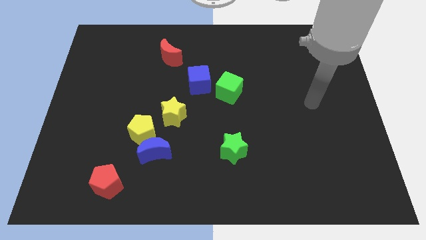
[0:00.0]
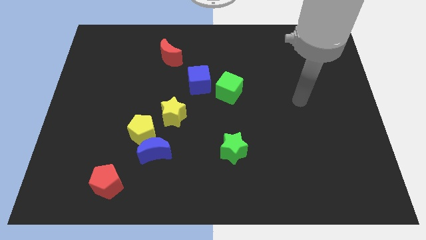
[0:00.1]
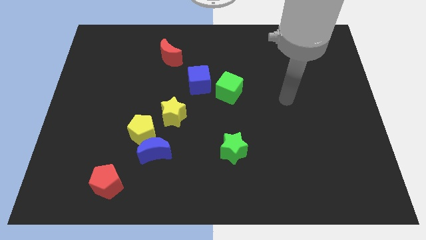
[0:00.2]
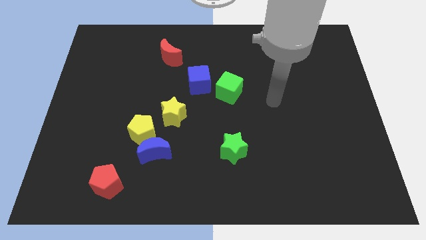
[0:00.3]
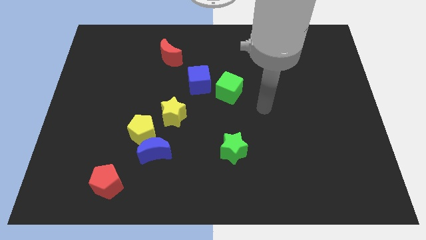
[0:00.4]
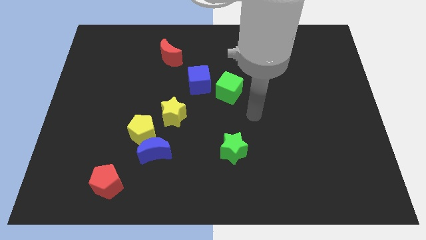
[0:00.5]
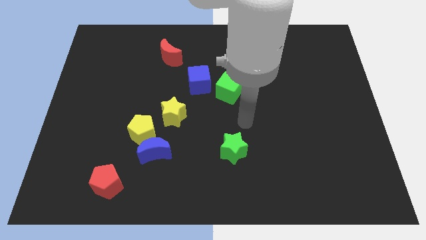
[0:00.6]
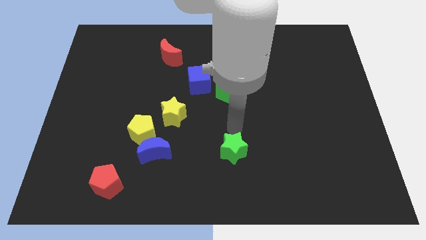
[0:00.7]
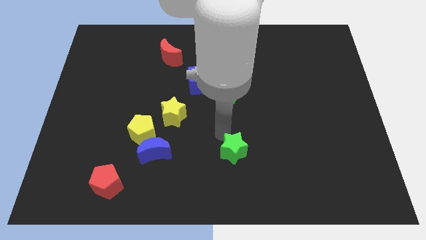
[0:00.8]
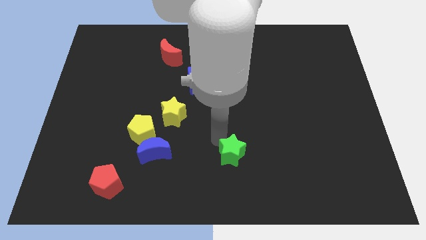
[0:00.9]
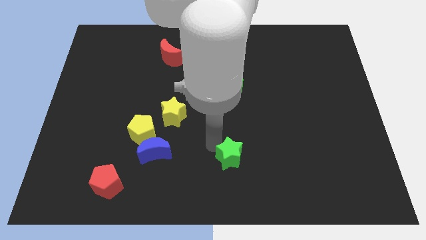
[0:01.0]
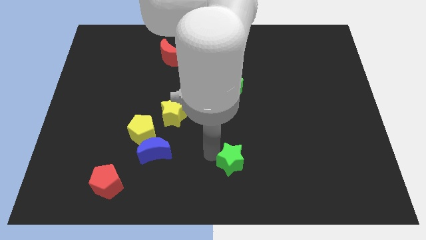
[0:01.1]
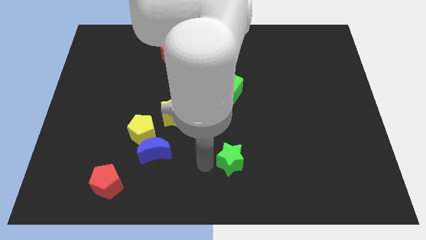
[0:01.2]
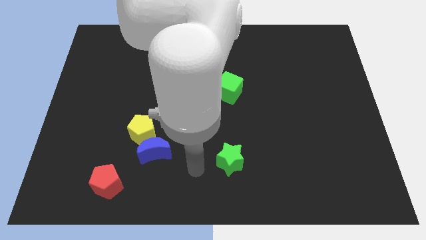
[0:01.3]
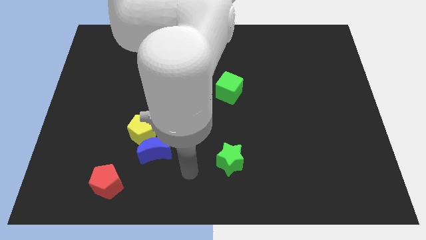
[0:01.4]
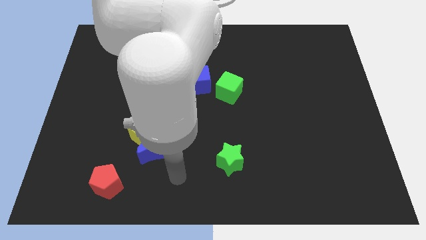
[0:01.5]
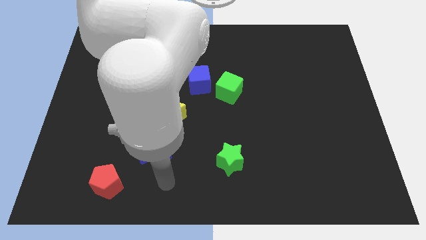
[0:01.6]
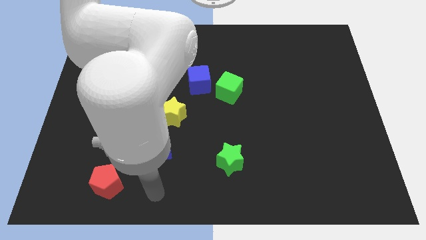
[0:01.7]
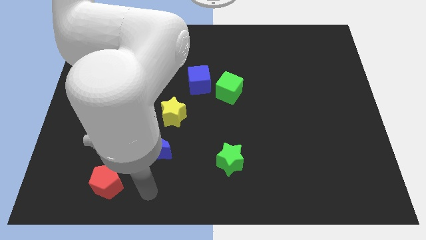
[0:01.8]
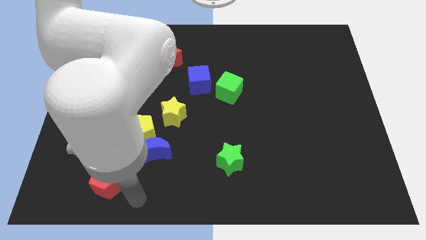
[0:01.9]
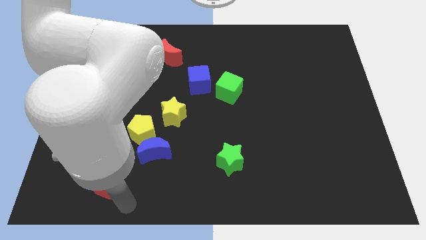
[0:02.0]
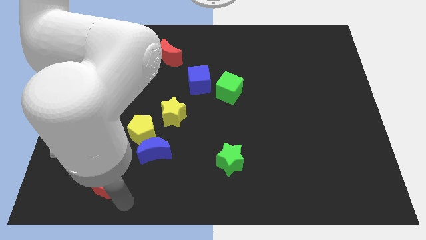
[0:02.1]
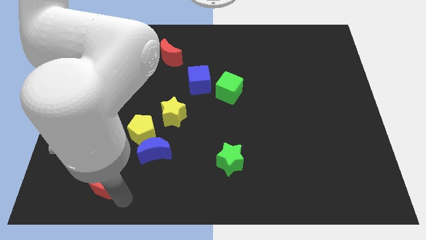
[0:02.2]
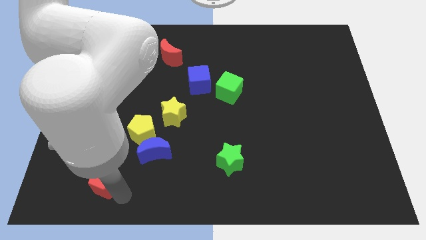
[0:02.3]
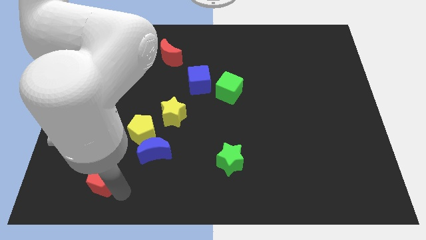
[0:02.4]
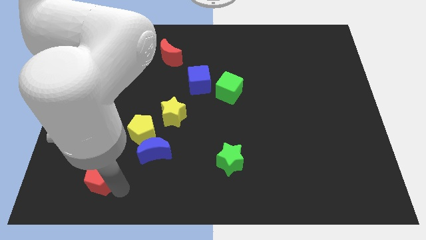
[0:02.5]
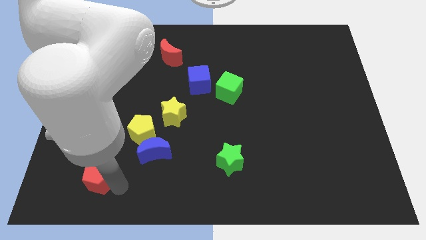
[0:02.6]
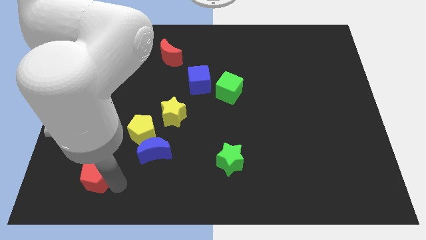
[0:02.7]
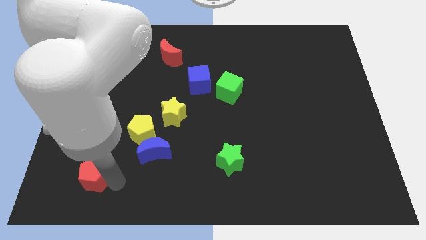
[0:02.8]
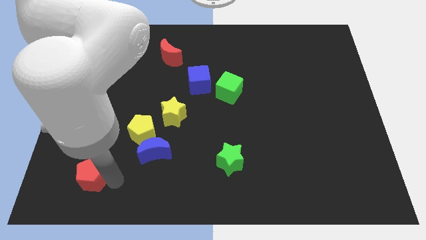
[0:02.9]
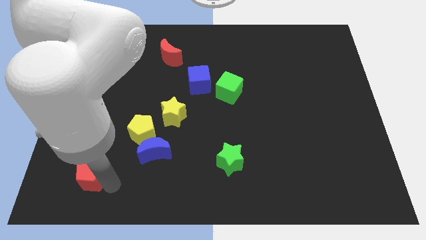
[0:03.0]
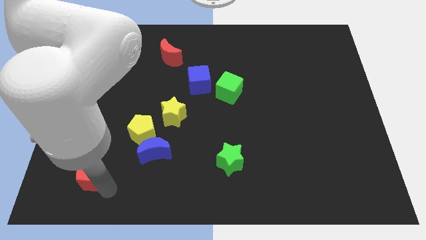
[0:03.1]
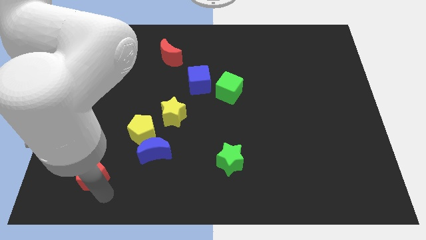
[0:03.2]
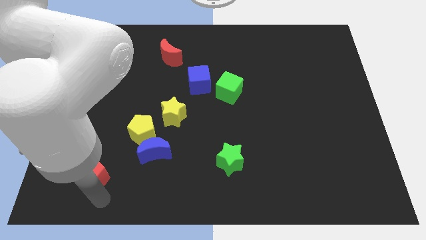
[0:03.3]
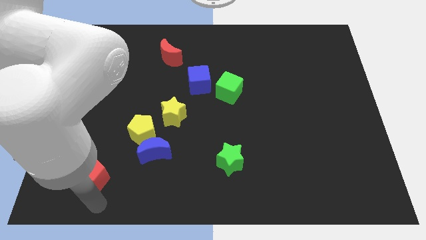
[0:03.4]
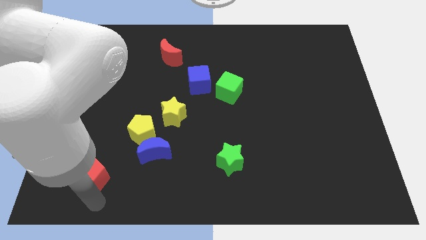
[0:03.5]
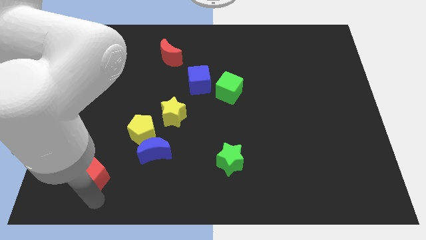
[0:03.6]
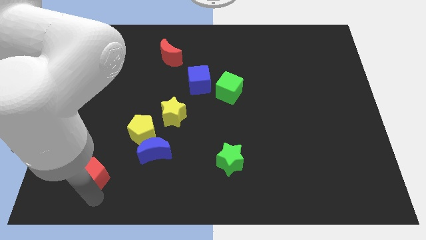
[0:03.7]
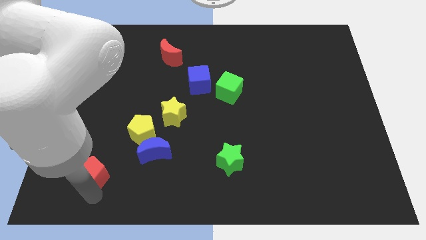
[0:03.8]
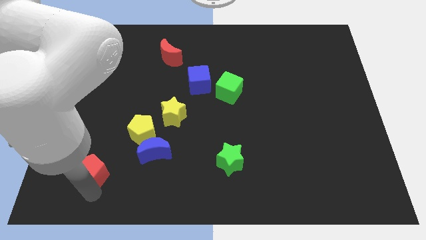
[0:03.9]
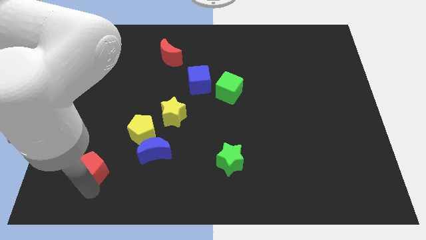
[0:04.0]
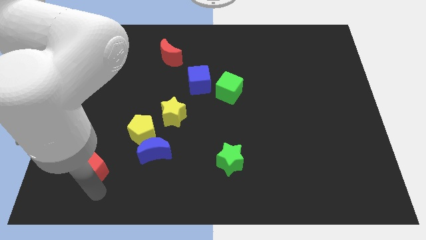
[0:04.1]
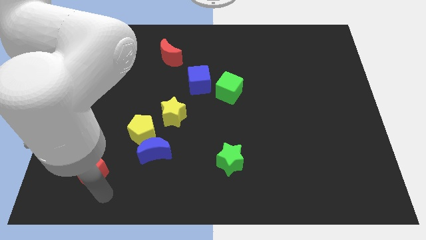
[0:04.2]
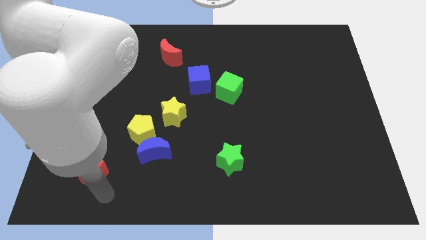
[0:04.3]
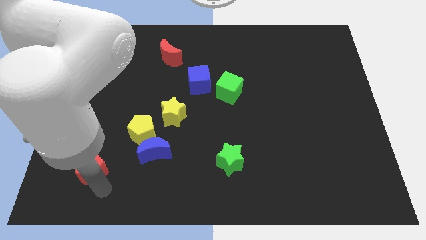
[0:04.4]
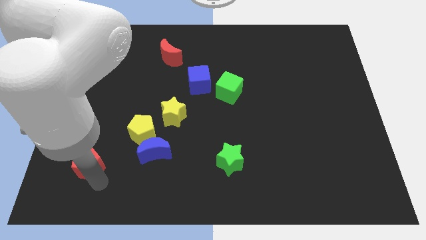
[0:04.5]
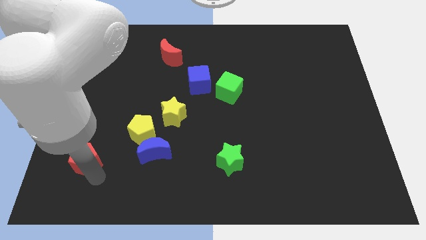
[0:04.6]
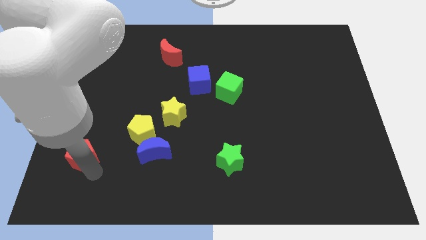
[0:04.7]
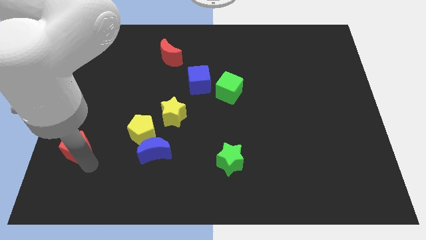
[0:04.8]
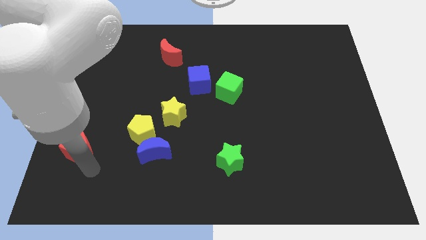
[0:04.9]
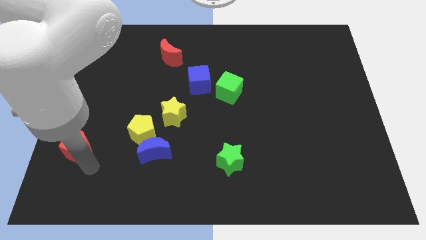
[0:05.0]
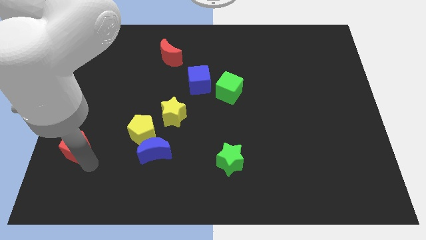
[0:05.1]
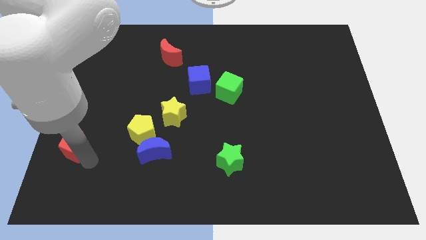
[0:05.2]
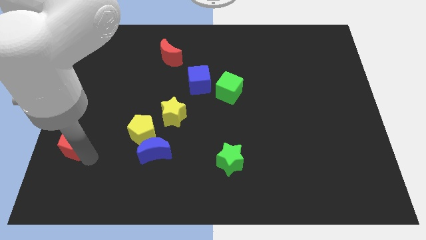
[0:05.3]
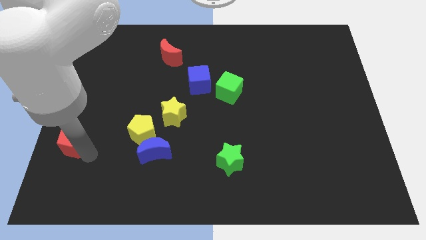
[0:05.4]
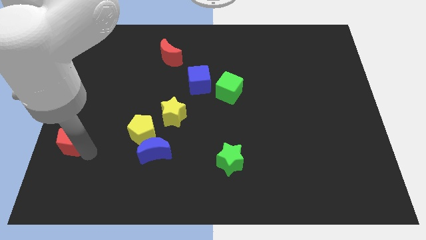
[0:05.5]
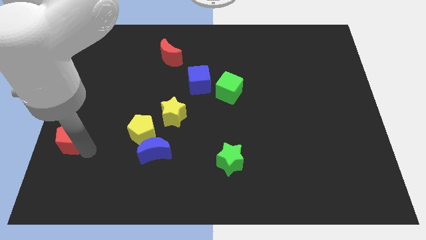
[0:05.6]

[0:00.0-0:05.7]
slide the red pentagon to the left side of the board

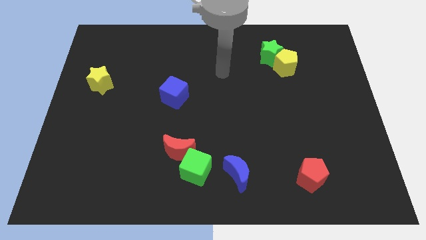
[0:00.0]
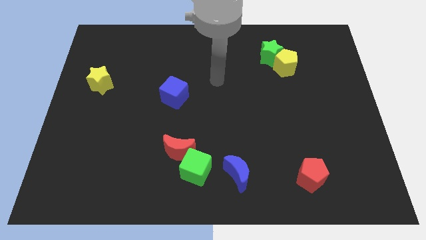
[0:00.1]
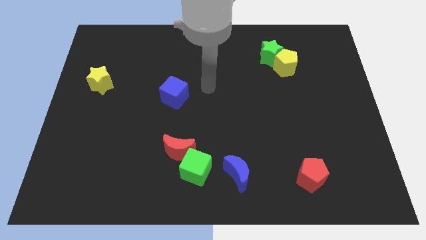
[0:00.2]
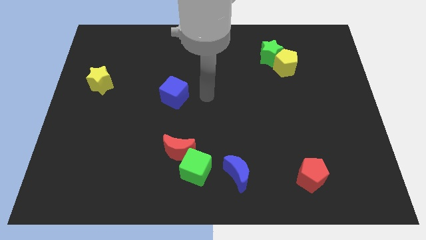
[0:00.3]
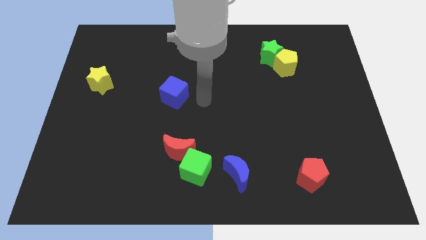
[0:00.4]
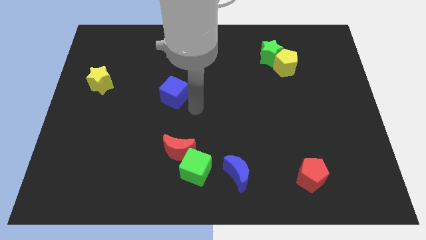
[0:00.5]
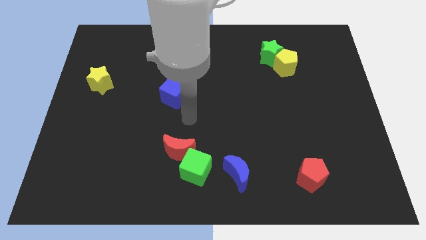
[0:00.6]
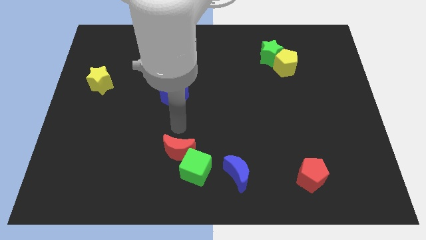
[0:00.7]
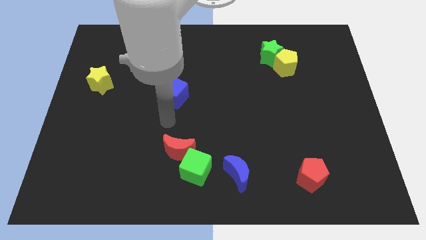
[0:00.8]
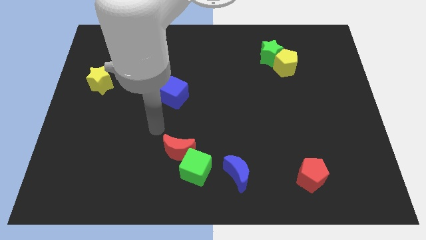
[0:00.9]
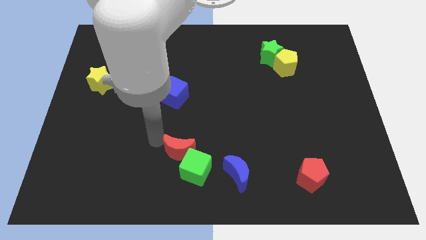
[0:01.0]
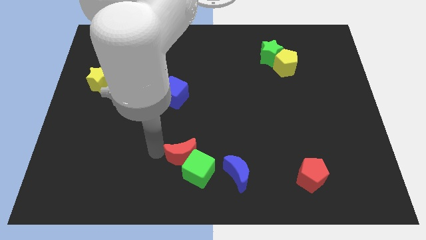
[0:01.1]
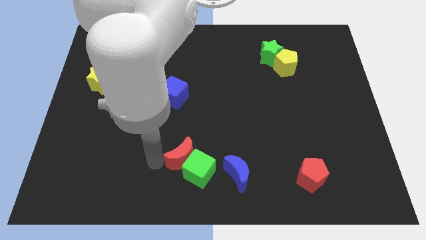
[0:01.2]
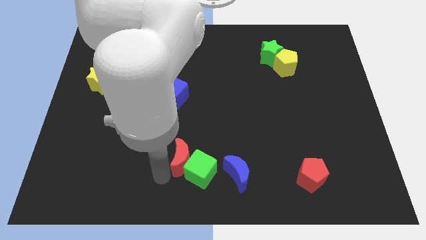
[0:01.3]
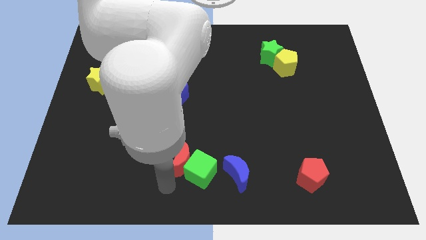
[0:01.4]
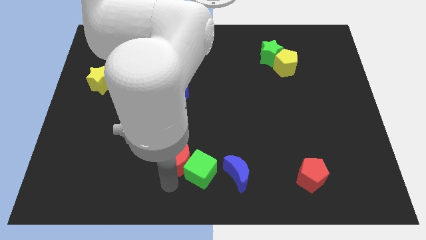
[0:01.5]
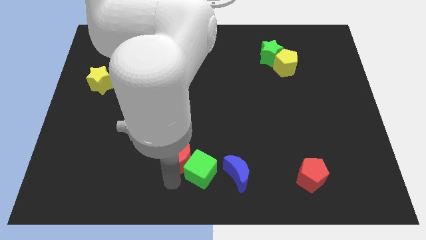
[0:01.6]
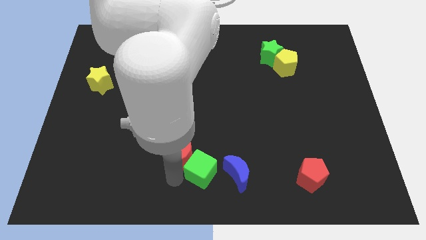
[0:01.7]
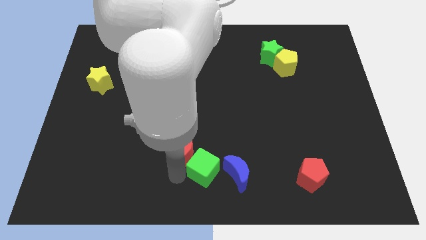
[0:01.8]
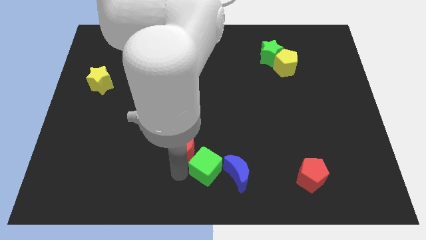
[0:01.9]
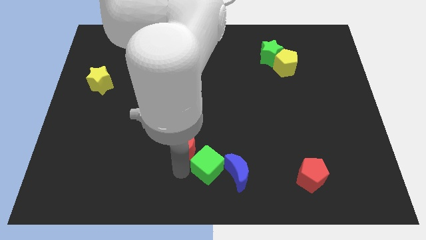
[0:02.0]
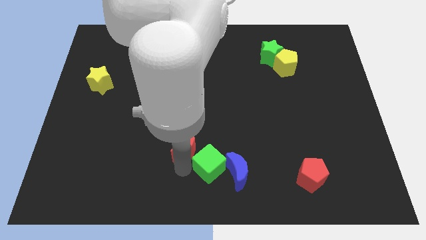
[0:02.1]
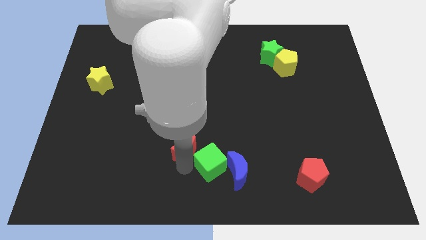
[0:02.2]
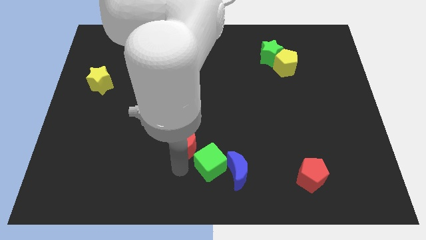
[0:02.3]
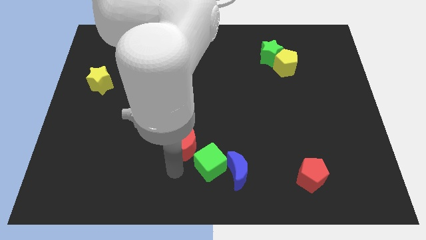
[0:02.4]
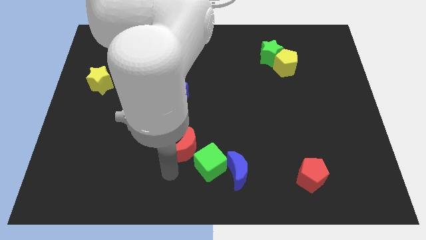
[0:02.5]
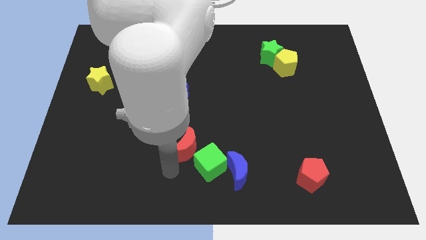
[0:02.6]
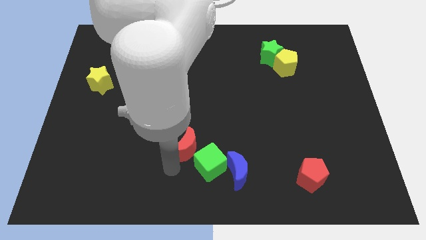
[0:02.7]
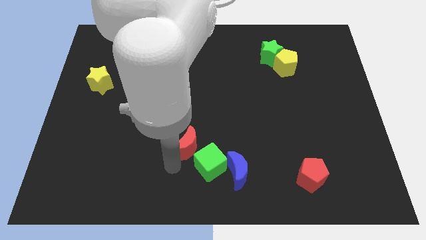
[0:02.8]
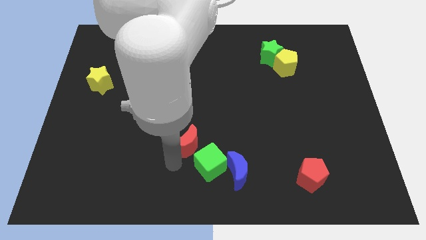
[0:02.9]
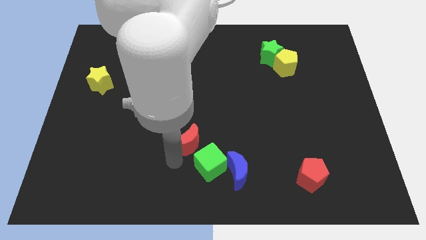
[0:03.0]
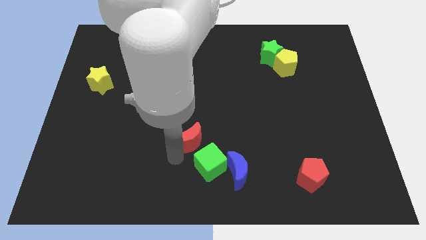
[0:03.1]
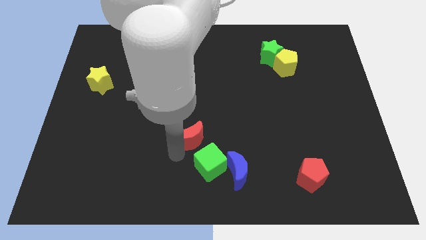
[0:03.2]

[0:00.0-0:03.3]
put the red moon to the middle of the board
